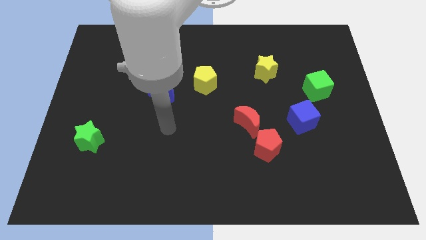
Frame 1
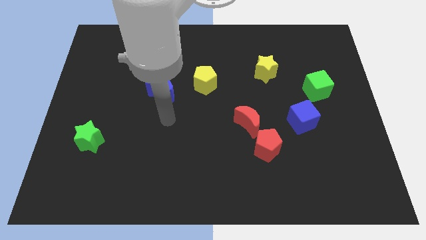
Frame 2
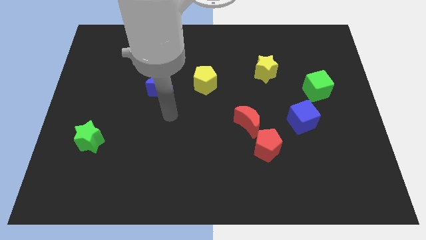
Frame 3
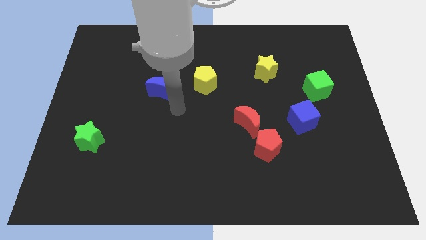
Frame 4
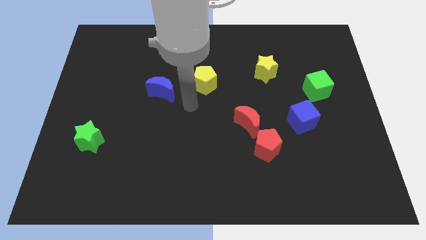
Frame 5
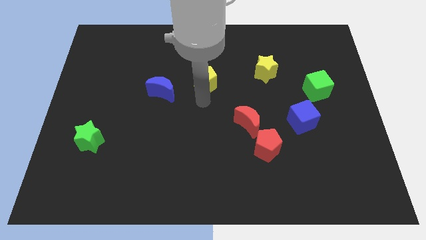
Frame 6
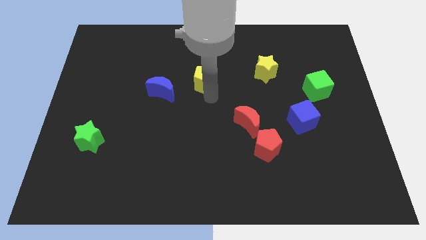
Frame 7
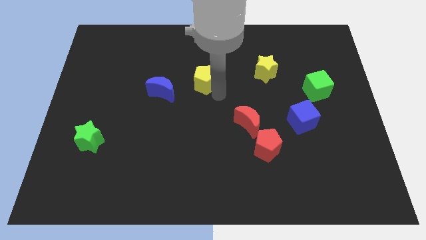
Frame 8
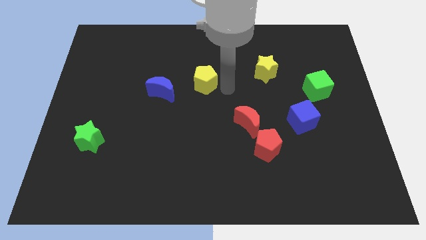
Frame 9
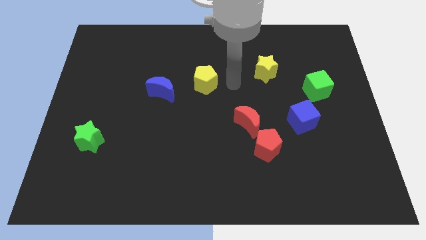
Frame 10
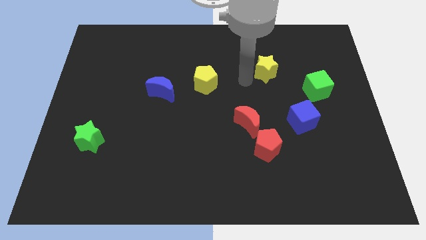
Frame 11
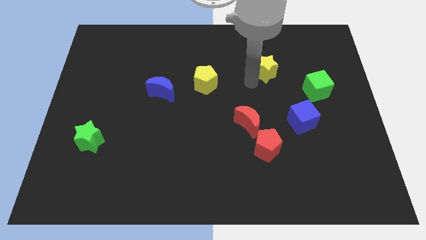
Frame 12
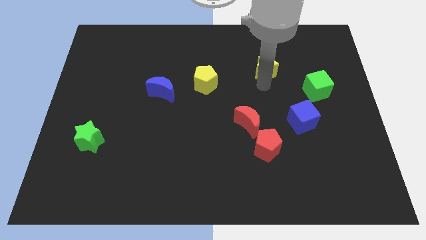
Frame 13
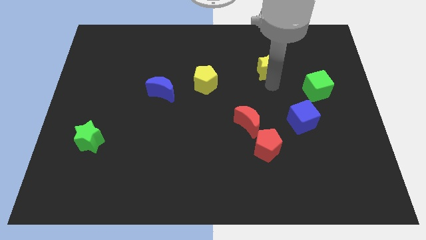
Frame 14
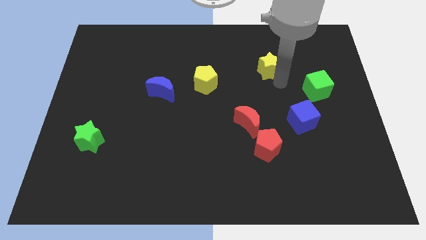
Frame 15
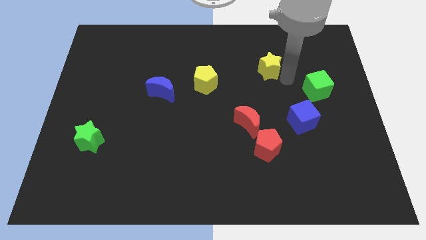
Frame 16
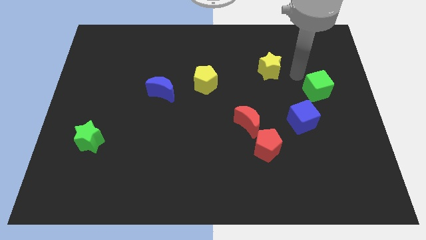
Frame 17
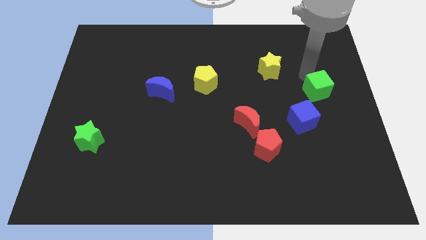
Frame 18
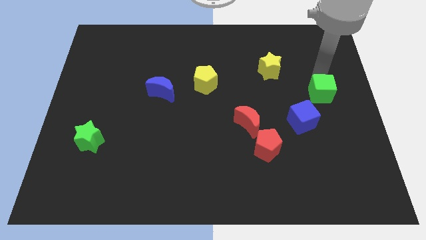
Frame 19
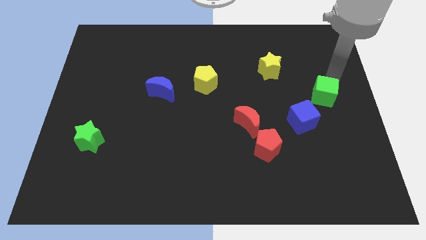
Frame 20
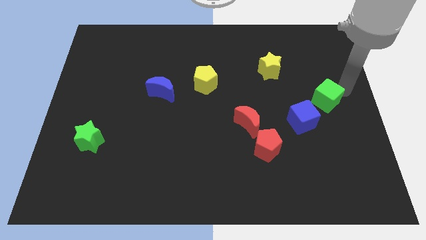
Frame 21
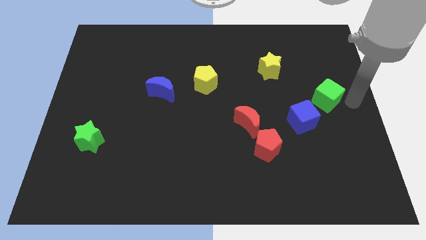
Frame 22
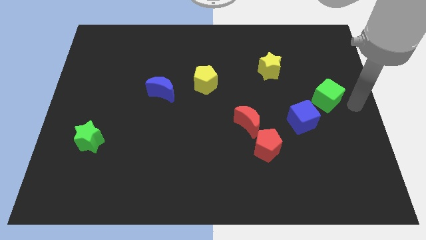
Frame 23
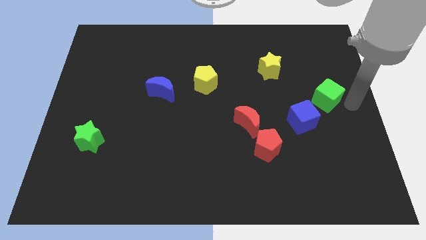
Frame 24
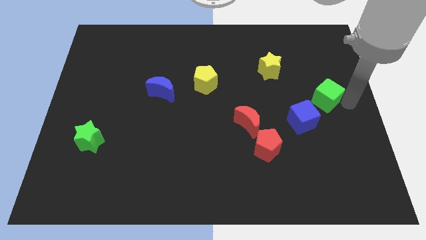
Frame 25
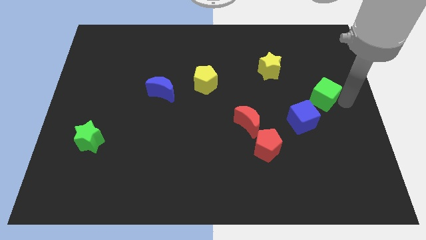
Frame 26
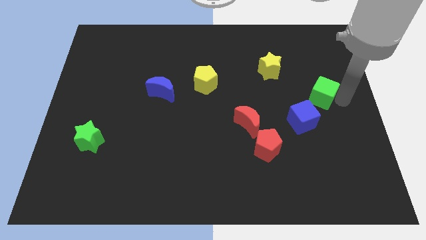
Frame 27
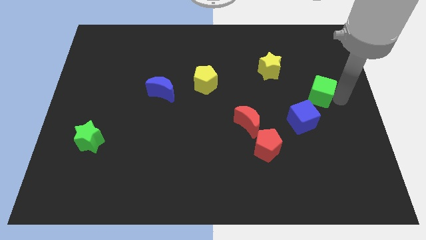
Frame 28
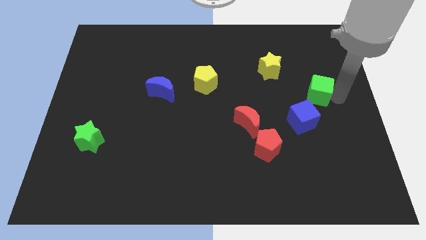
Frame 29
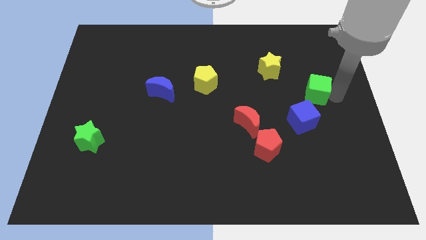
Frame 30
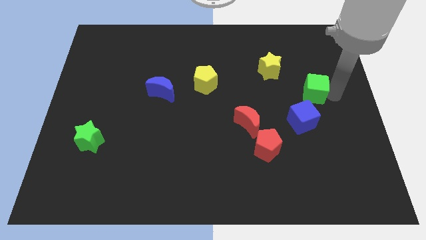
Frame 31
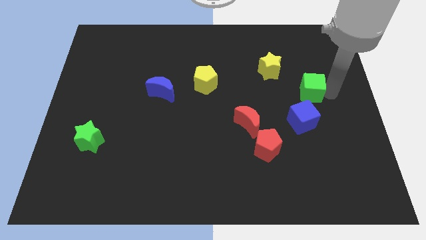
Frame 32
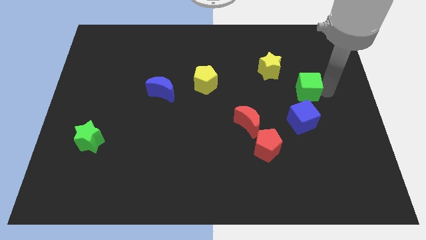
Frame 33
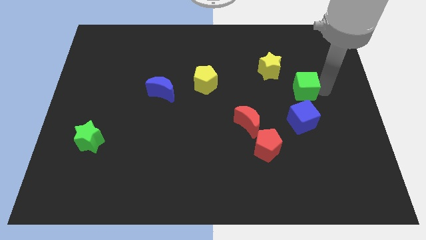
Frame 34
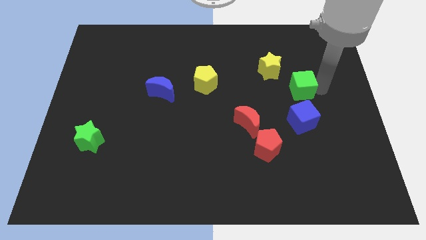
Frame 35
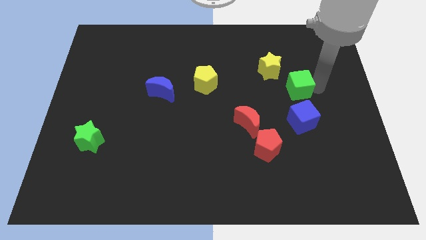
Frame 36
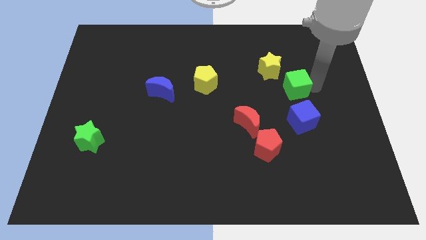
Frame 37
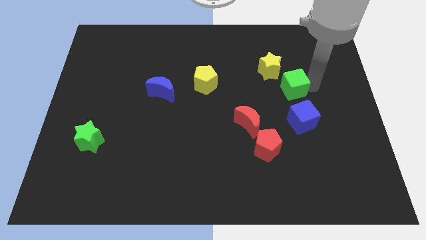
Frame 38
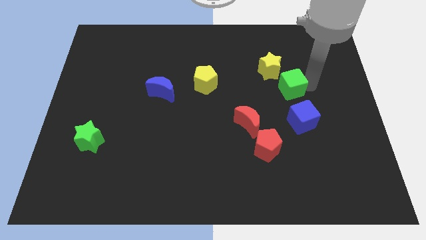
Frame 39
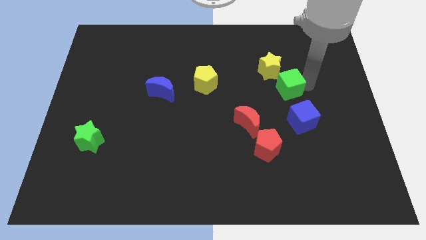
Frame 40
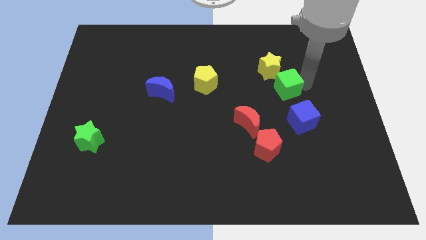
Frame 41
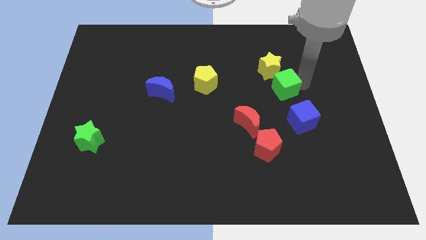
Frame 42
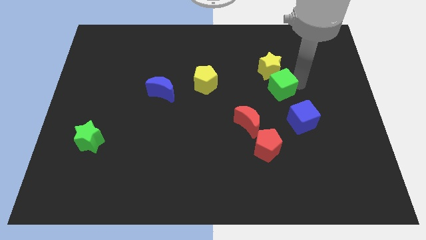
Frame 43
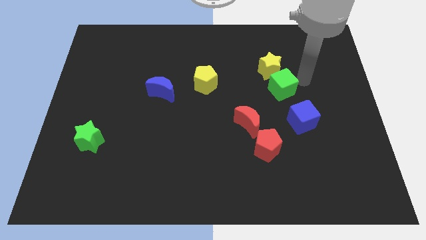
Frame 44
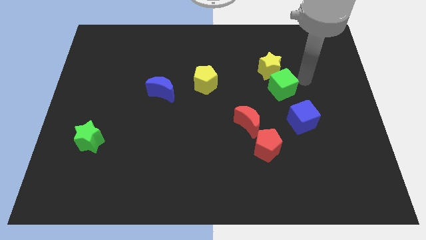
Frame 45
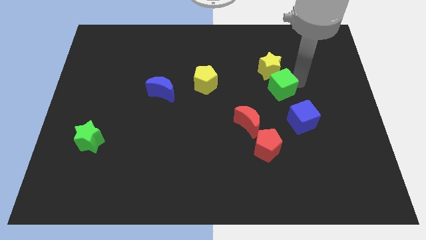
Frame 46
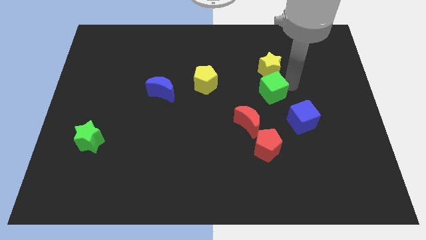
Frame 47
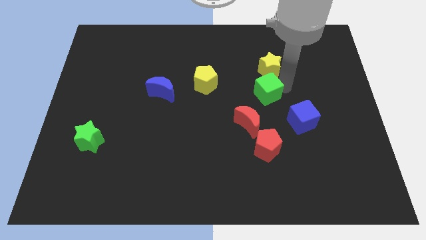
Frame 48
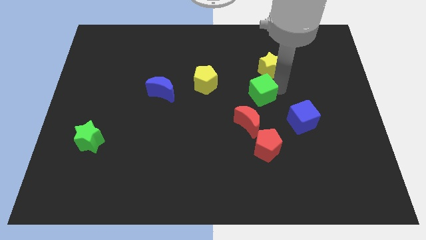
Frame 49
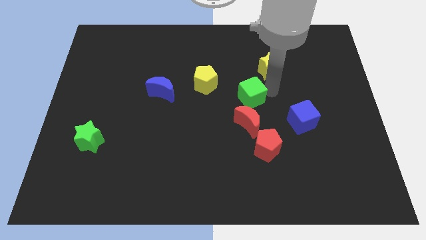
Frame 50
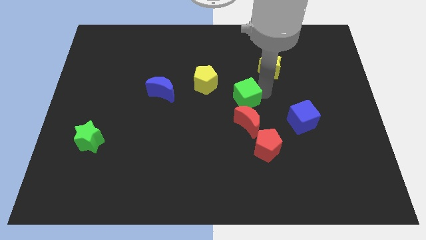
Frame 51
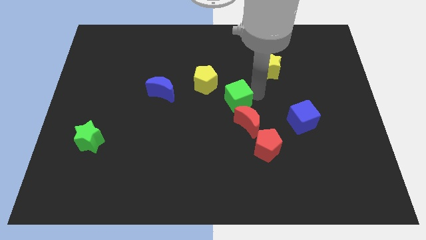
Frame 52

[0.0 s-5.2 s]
move the green cube to the top left of the red moon
